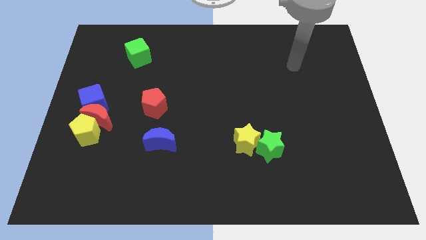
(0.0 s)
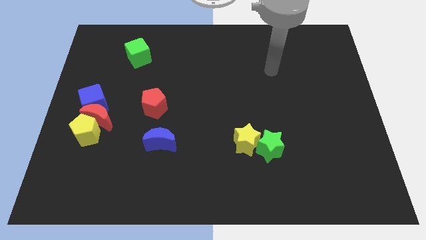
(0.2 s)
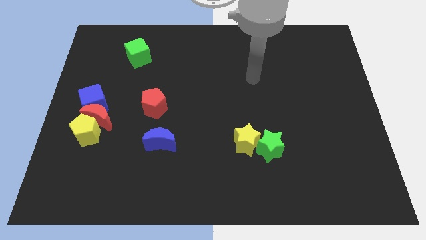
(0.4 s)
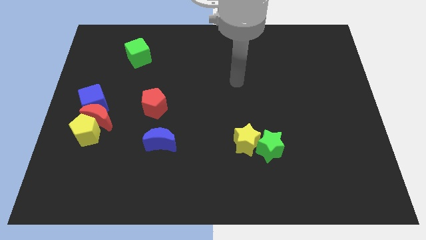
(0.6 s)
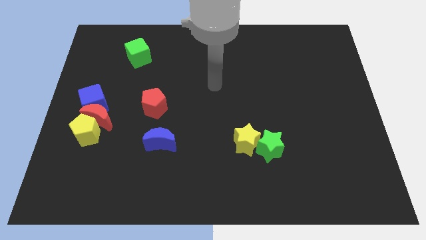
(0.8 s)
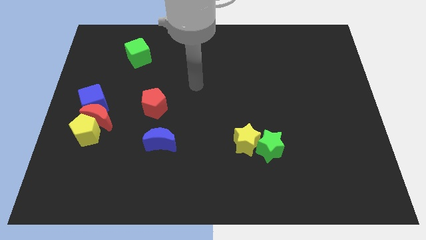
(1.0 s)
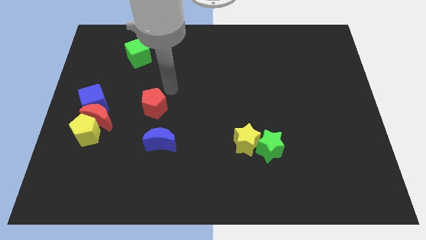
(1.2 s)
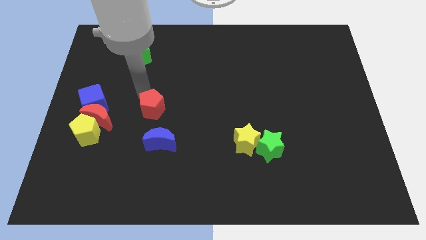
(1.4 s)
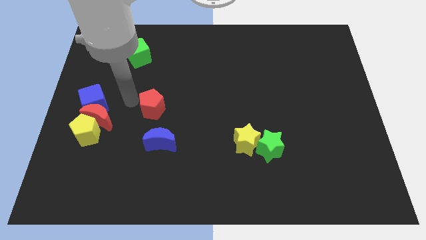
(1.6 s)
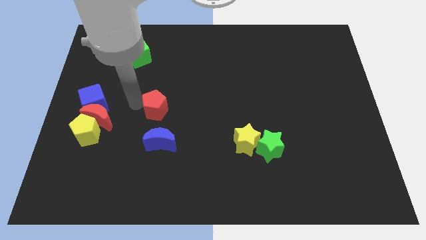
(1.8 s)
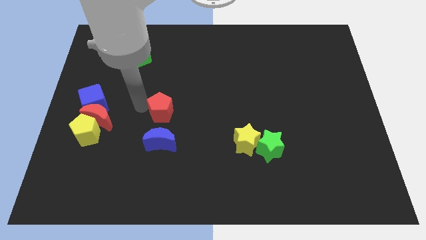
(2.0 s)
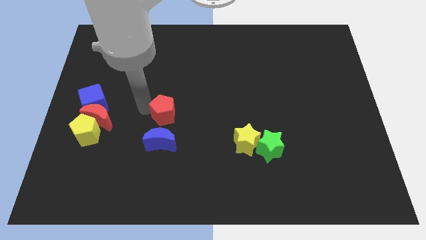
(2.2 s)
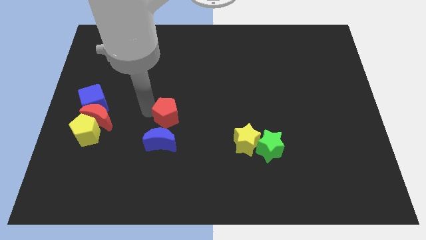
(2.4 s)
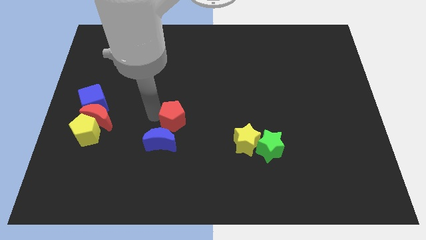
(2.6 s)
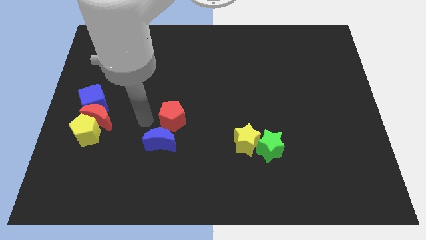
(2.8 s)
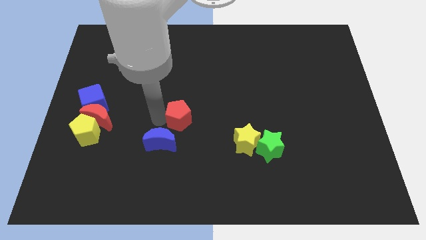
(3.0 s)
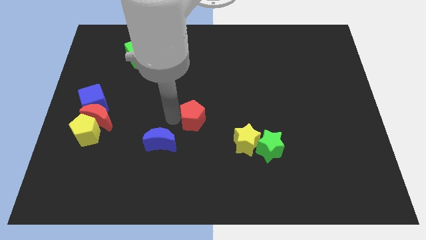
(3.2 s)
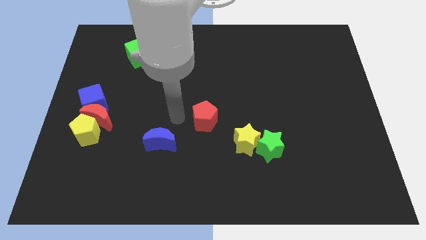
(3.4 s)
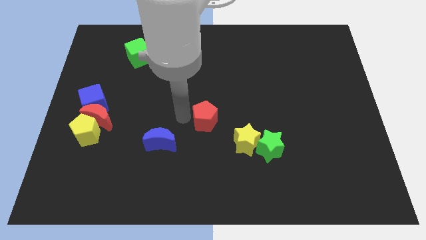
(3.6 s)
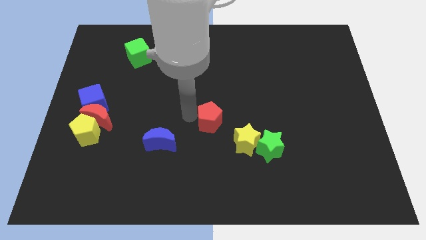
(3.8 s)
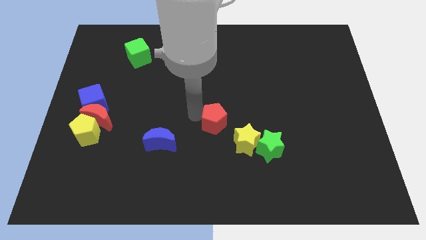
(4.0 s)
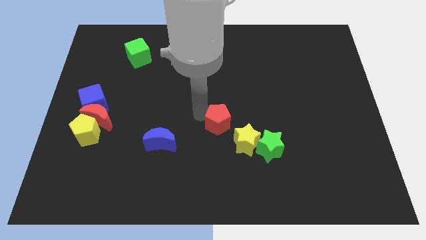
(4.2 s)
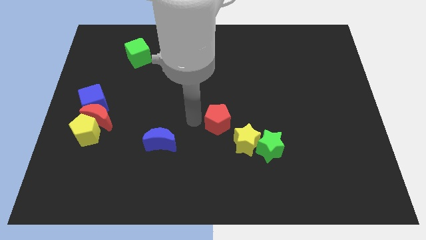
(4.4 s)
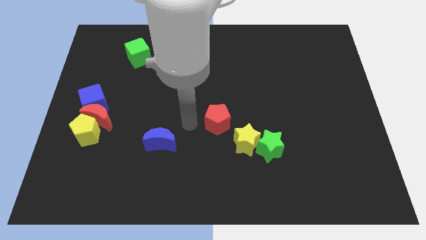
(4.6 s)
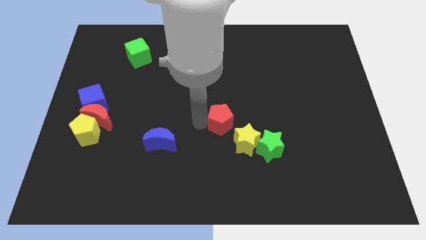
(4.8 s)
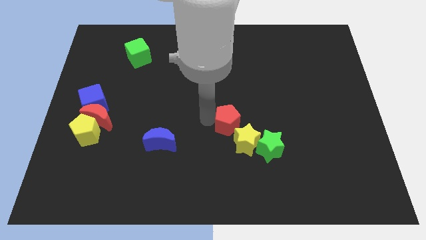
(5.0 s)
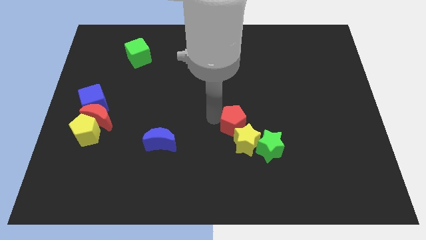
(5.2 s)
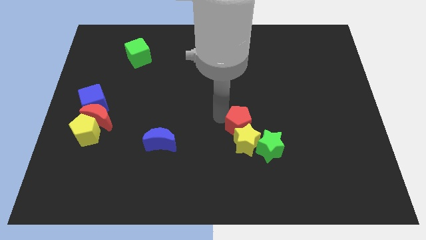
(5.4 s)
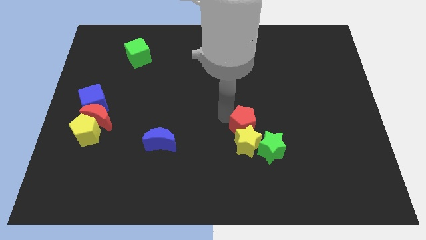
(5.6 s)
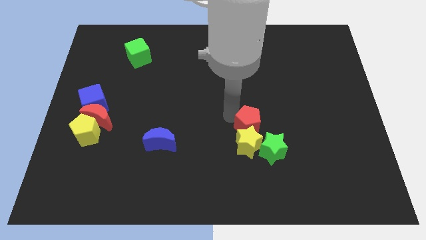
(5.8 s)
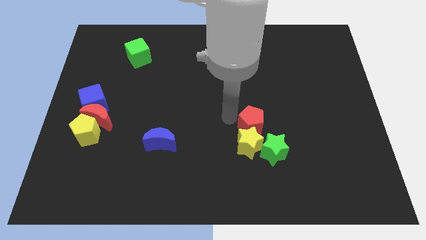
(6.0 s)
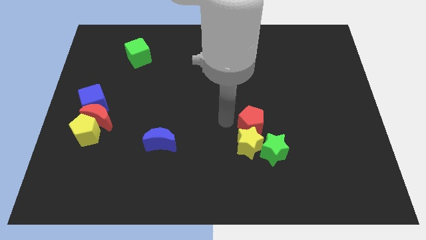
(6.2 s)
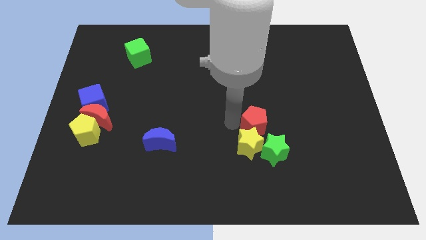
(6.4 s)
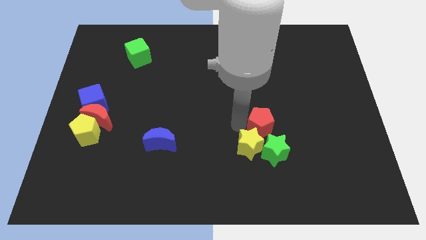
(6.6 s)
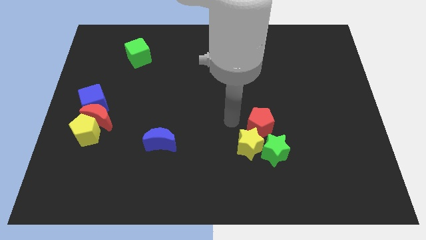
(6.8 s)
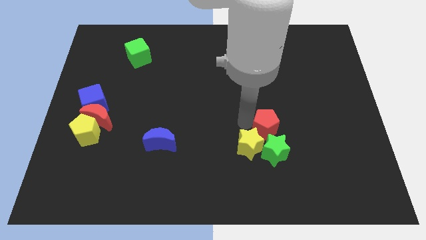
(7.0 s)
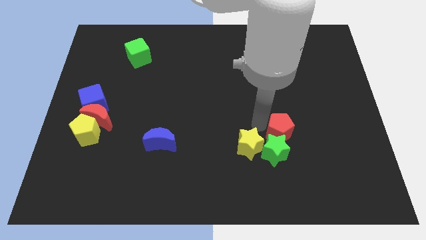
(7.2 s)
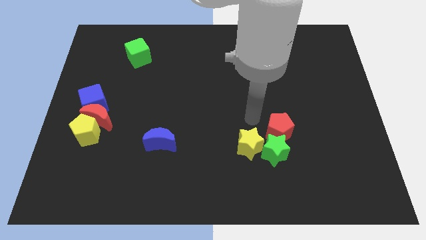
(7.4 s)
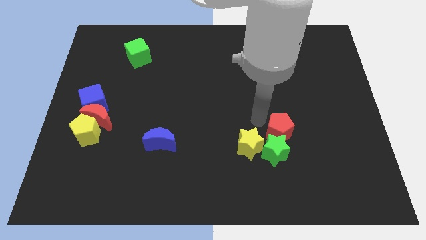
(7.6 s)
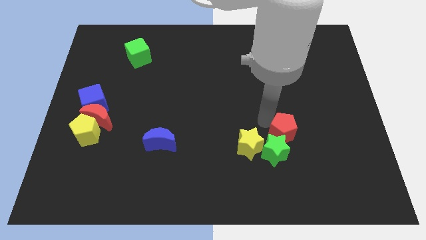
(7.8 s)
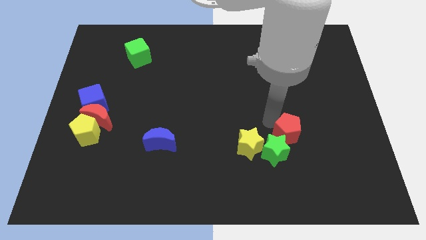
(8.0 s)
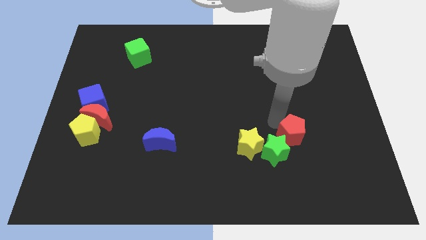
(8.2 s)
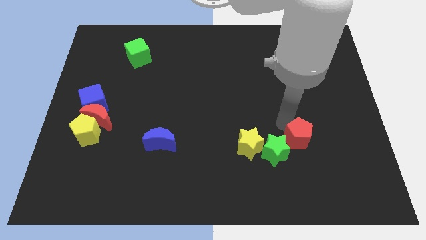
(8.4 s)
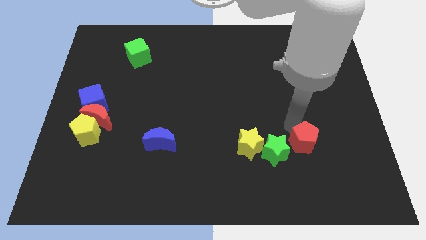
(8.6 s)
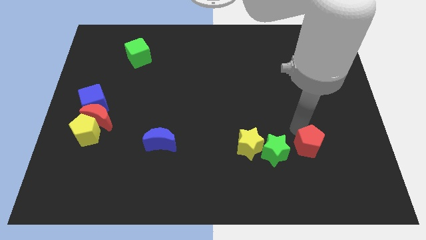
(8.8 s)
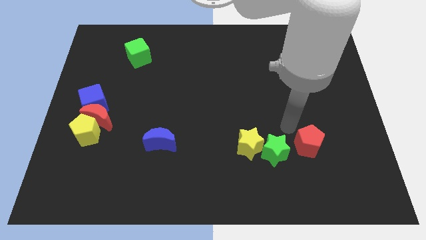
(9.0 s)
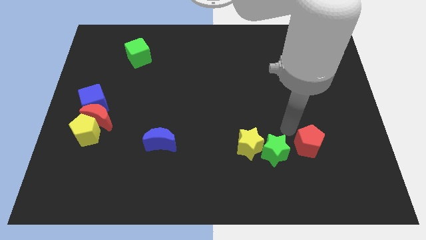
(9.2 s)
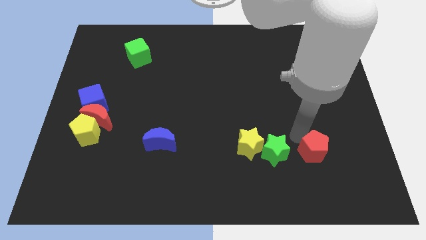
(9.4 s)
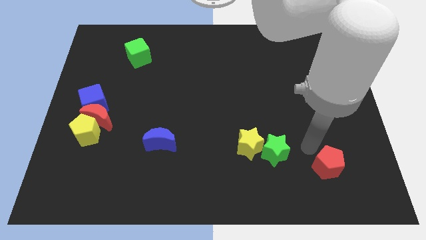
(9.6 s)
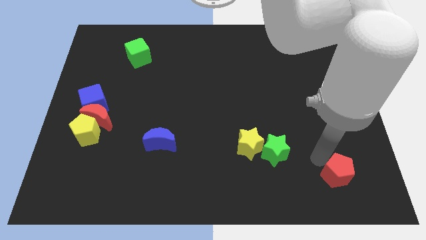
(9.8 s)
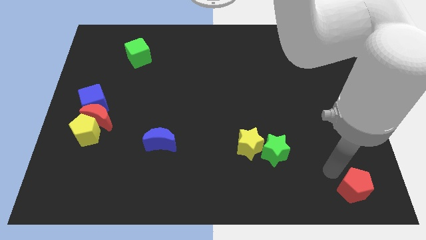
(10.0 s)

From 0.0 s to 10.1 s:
slide the red pentagon to the bottom right
